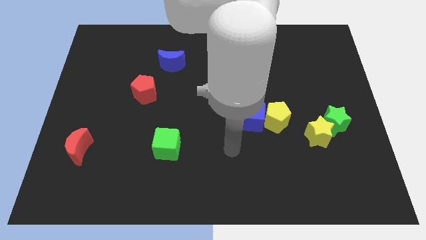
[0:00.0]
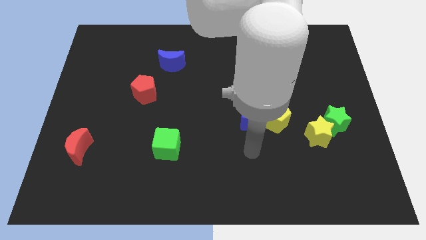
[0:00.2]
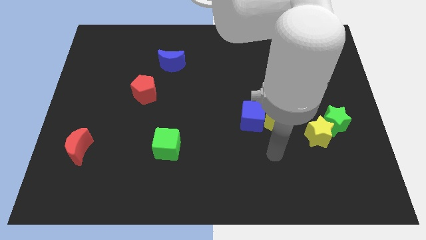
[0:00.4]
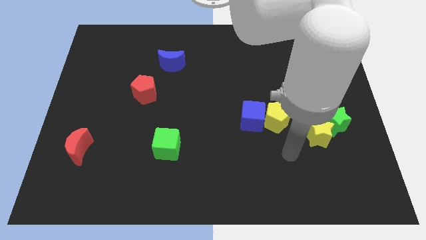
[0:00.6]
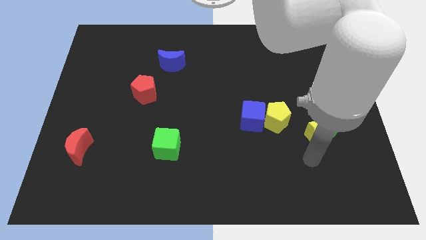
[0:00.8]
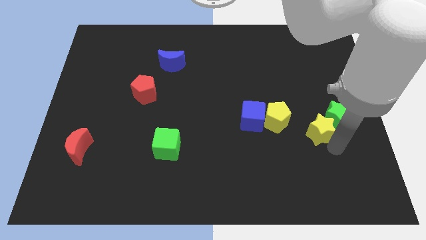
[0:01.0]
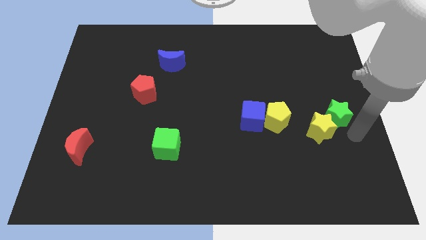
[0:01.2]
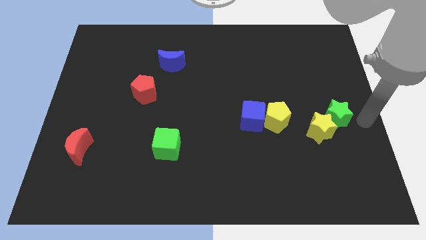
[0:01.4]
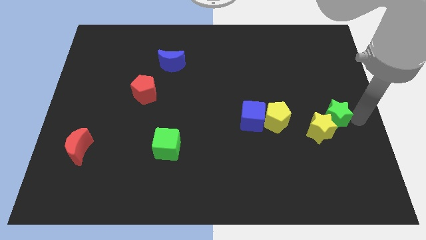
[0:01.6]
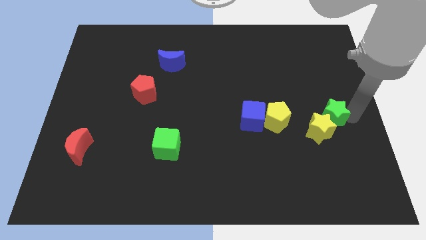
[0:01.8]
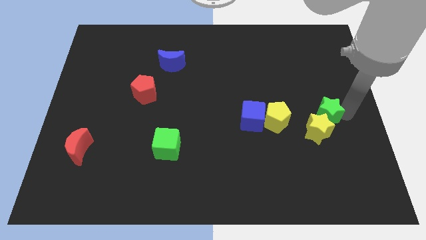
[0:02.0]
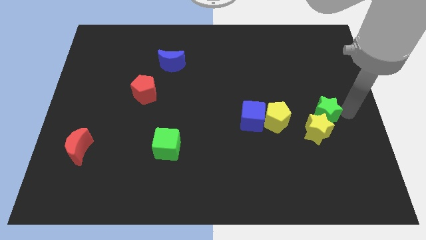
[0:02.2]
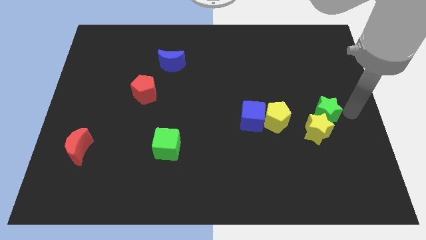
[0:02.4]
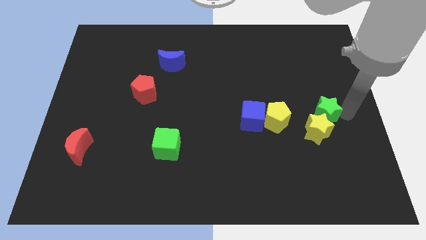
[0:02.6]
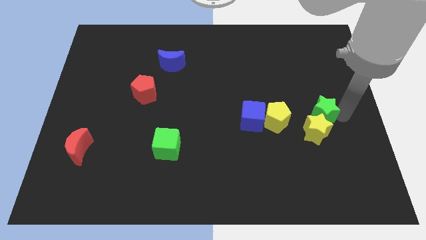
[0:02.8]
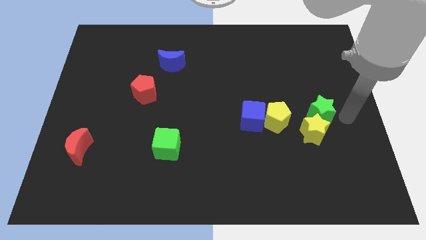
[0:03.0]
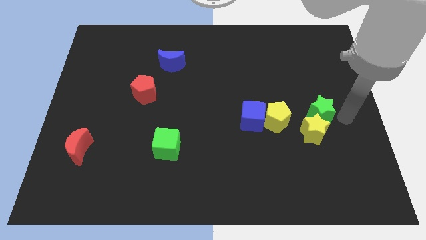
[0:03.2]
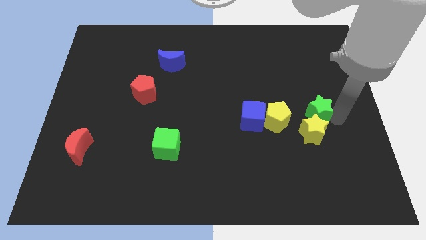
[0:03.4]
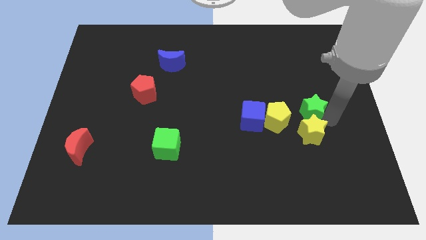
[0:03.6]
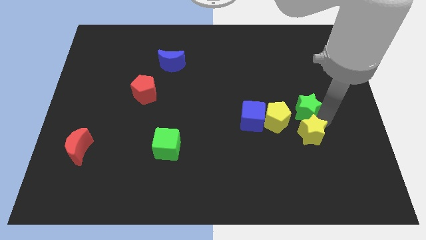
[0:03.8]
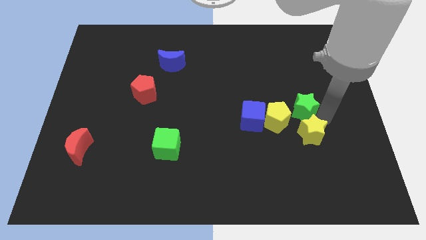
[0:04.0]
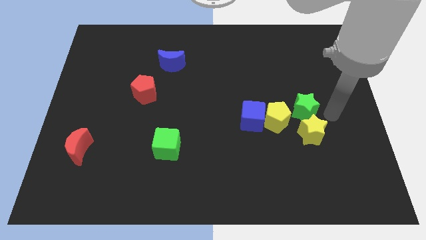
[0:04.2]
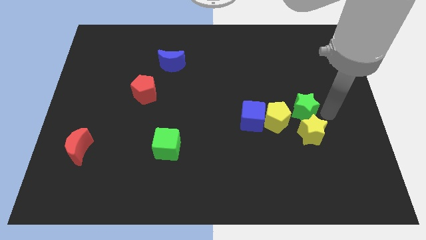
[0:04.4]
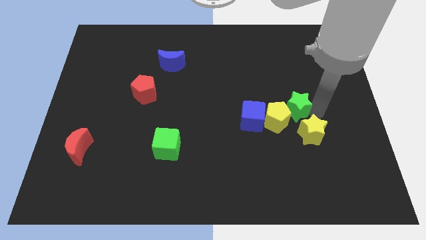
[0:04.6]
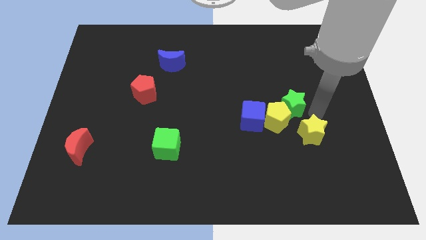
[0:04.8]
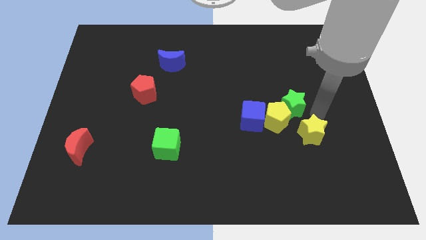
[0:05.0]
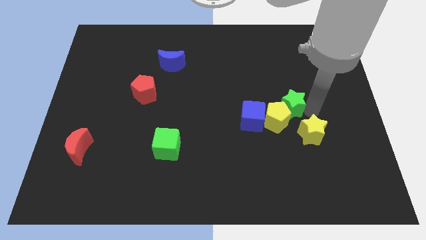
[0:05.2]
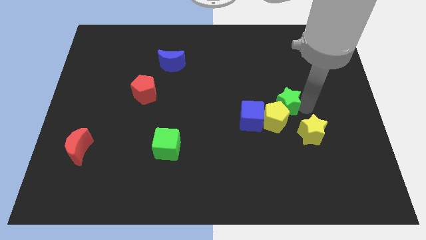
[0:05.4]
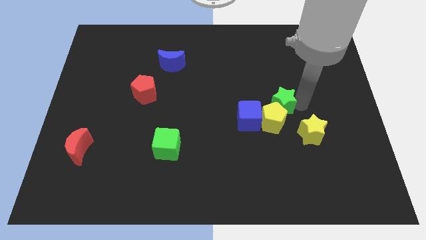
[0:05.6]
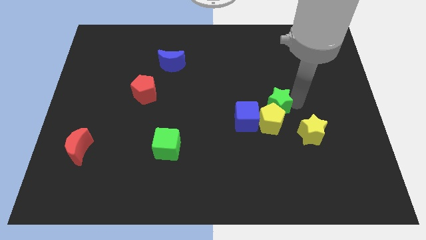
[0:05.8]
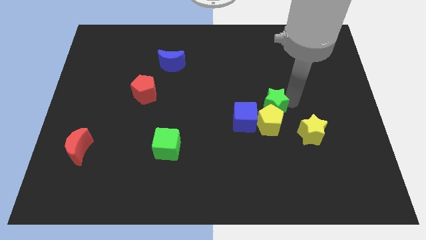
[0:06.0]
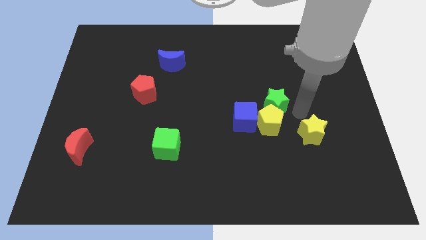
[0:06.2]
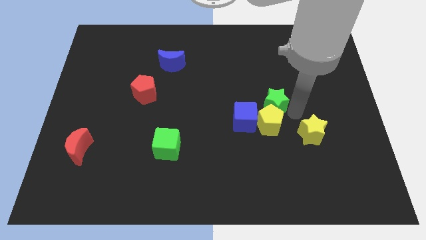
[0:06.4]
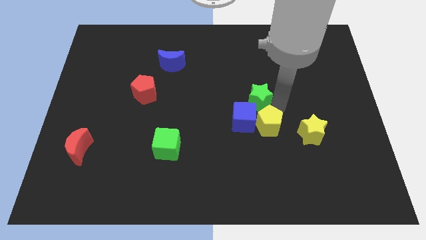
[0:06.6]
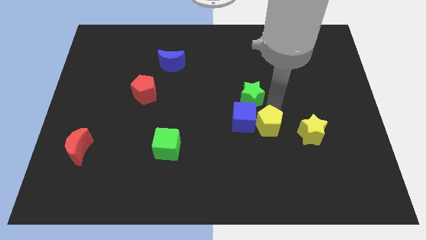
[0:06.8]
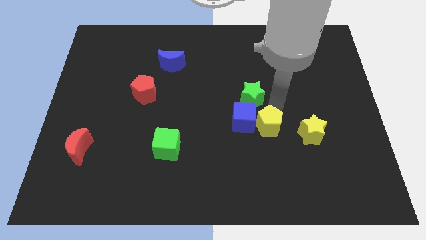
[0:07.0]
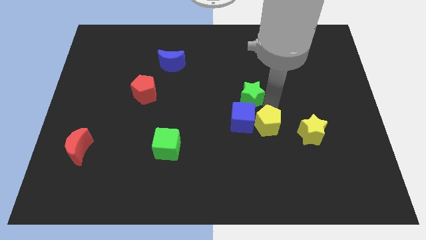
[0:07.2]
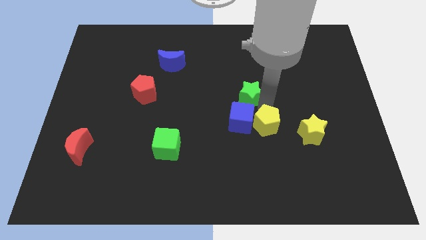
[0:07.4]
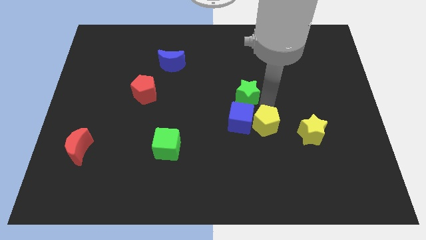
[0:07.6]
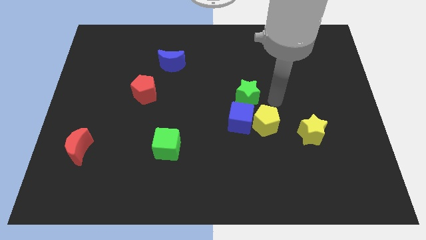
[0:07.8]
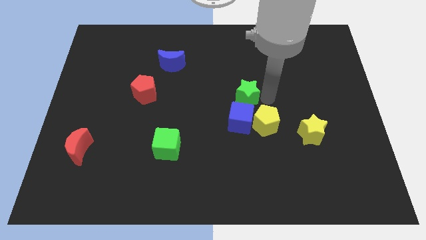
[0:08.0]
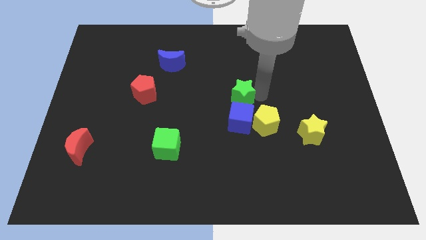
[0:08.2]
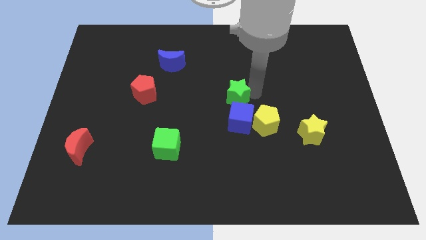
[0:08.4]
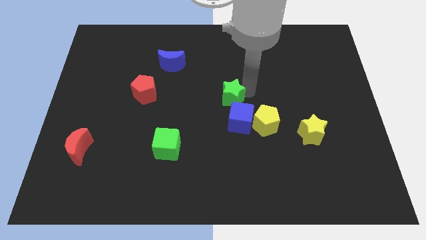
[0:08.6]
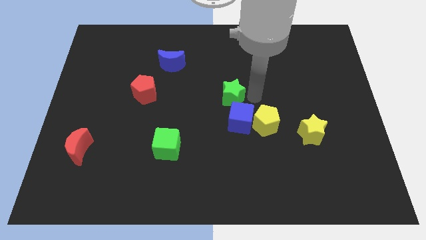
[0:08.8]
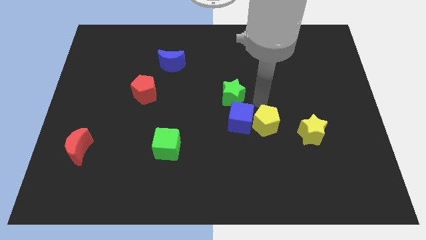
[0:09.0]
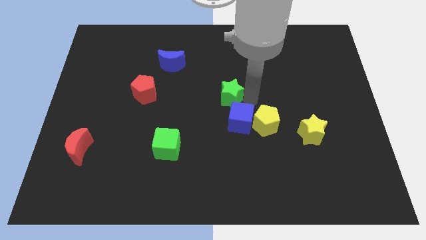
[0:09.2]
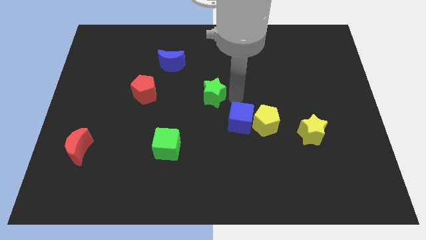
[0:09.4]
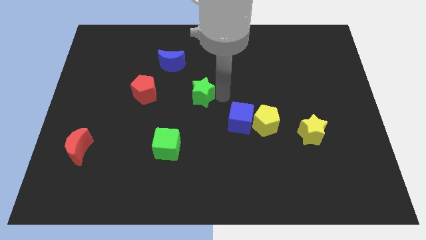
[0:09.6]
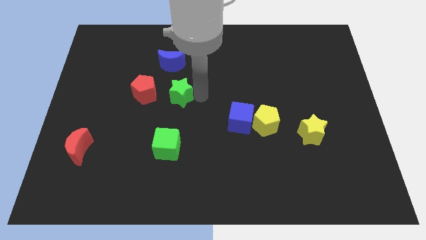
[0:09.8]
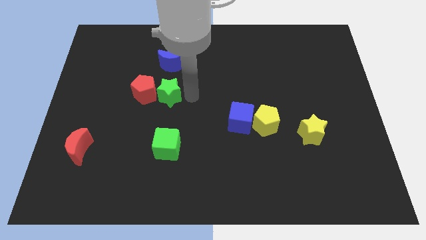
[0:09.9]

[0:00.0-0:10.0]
push the green star close to the red pentagon

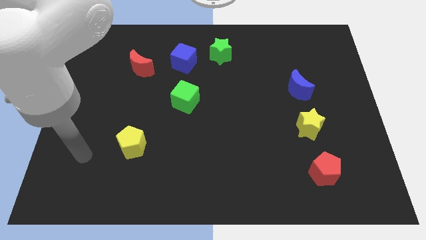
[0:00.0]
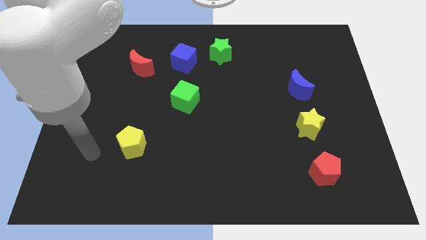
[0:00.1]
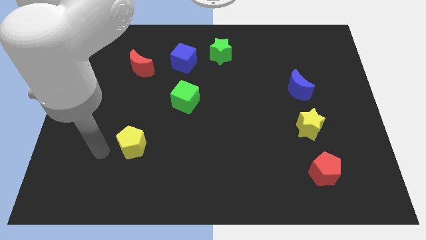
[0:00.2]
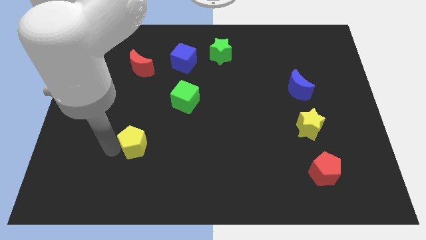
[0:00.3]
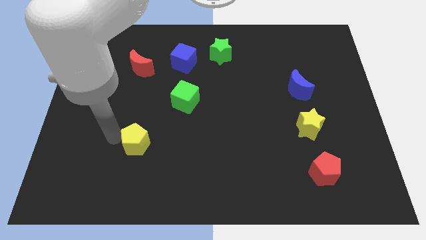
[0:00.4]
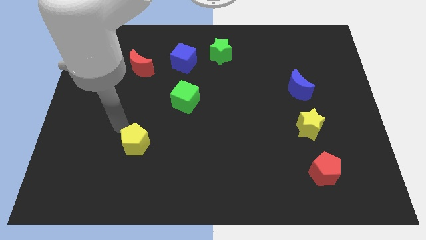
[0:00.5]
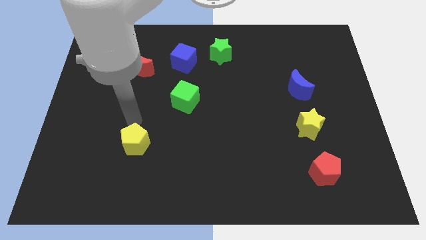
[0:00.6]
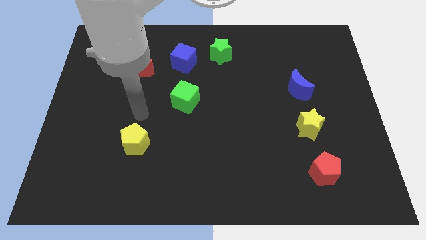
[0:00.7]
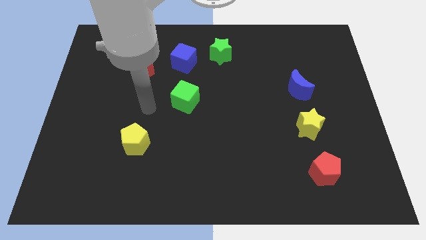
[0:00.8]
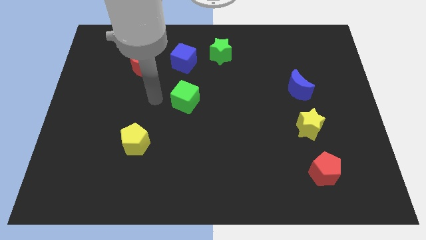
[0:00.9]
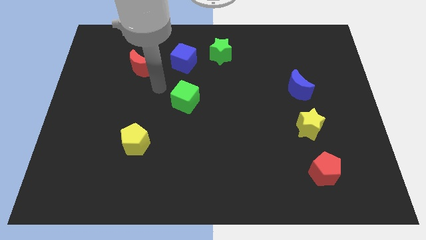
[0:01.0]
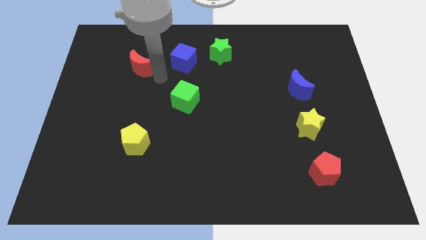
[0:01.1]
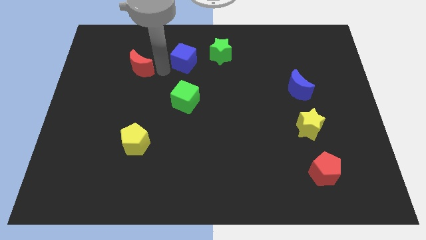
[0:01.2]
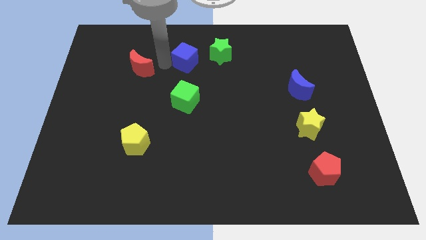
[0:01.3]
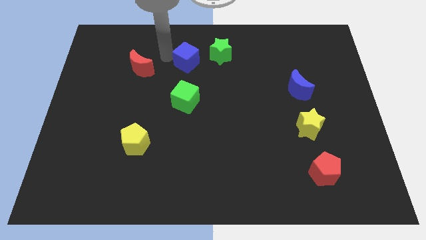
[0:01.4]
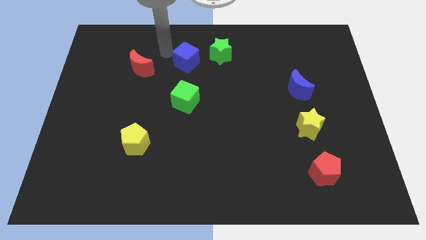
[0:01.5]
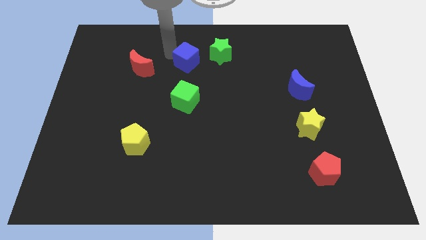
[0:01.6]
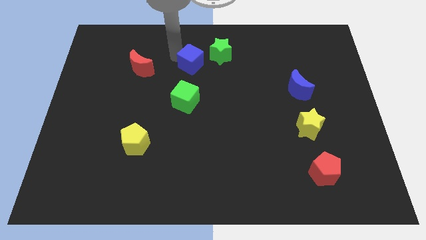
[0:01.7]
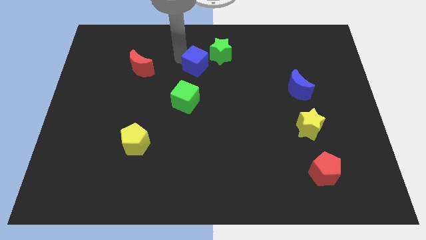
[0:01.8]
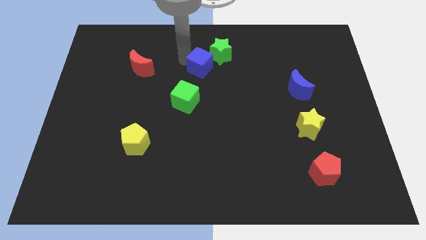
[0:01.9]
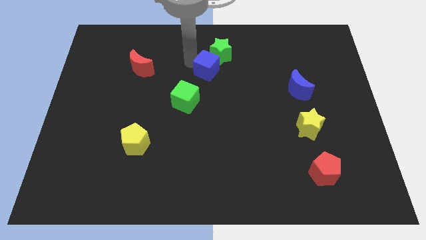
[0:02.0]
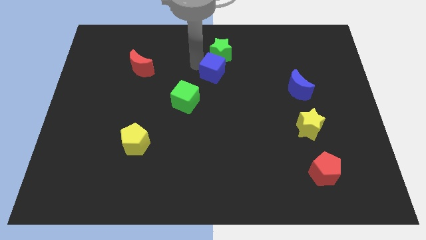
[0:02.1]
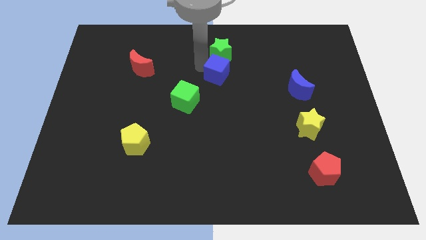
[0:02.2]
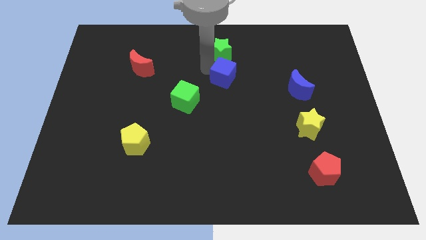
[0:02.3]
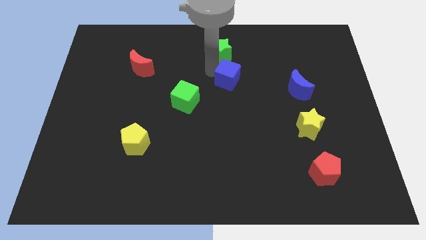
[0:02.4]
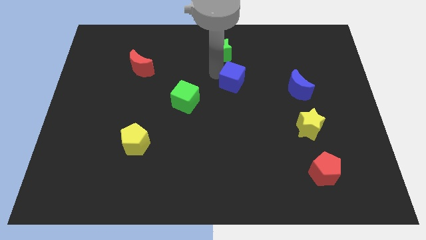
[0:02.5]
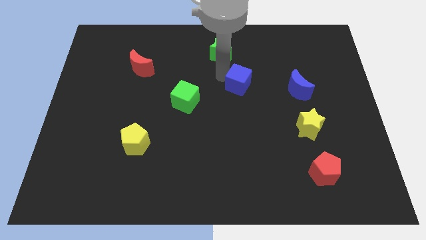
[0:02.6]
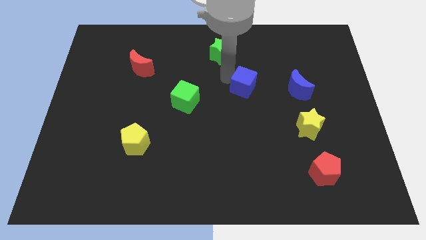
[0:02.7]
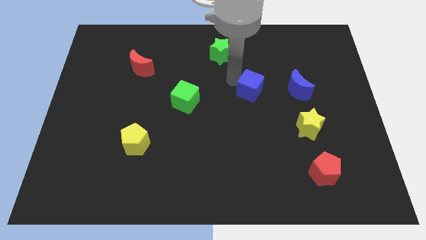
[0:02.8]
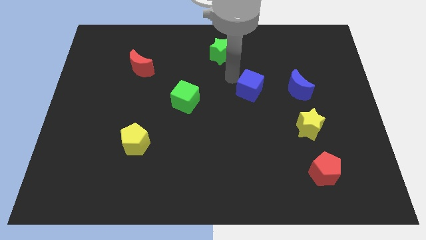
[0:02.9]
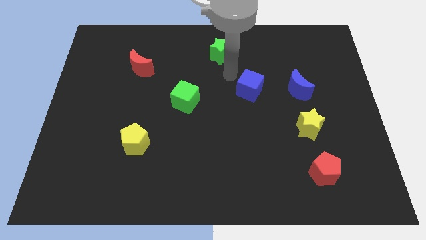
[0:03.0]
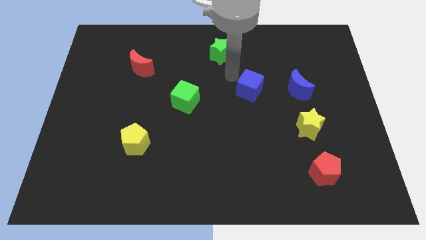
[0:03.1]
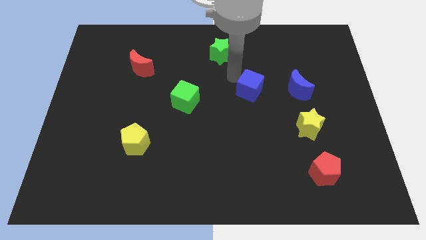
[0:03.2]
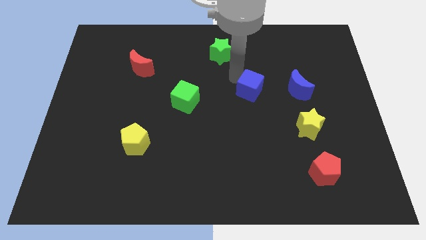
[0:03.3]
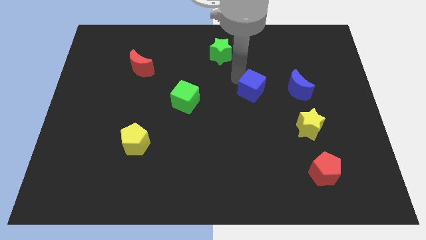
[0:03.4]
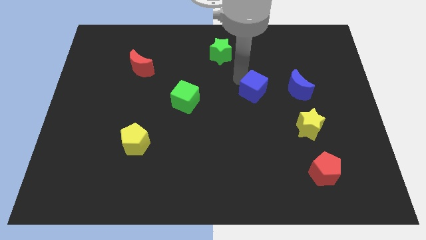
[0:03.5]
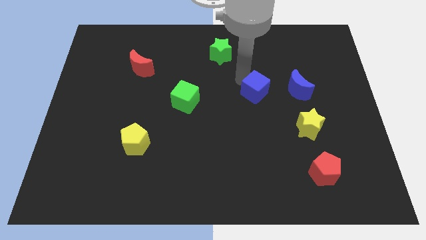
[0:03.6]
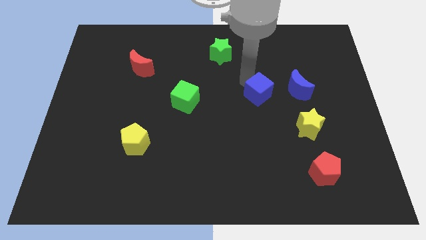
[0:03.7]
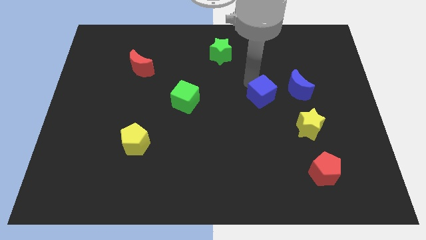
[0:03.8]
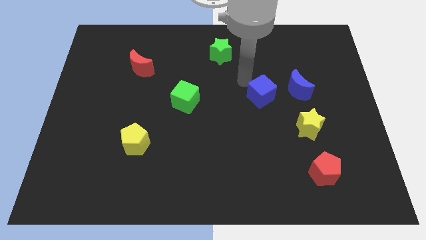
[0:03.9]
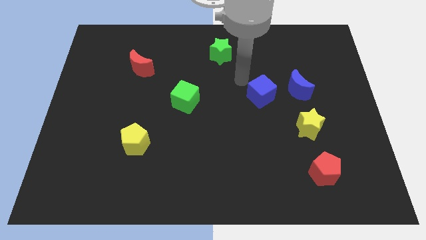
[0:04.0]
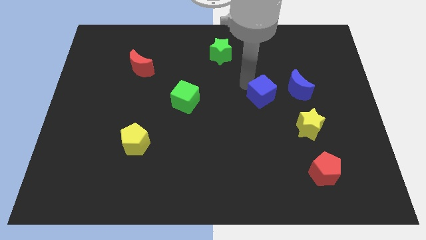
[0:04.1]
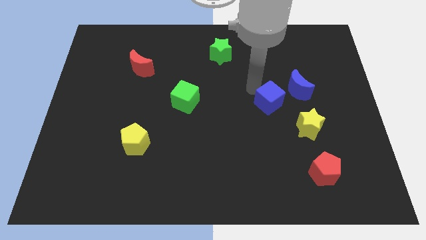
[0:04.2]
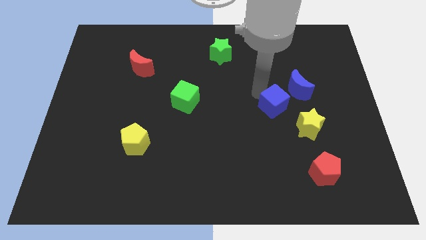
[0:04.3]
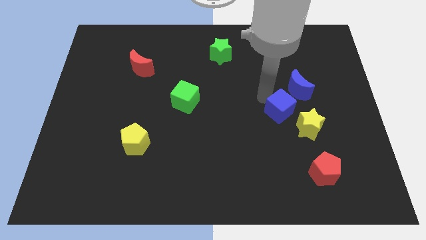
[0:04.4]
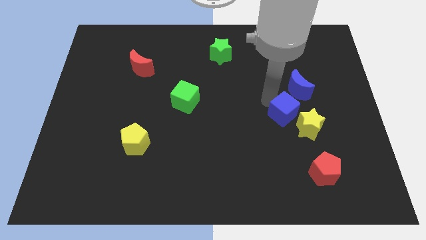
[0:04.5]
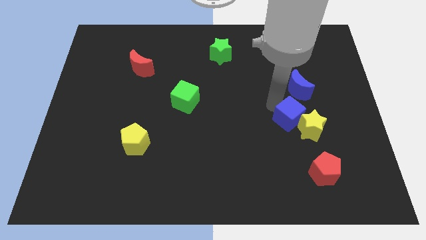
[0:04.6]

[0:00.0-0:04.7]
push the blue cube to the yellow star
